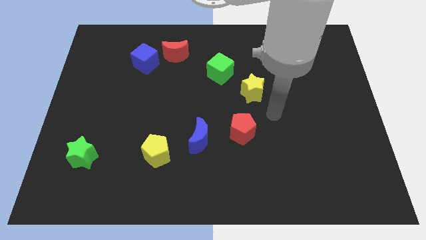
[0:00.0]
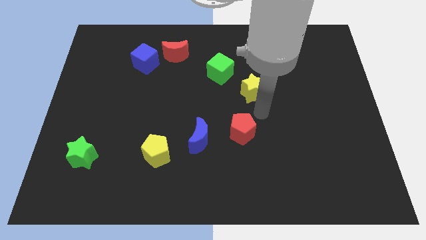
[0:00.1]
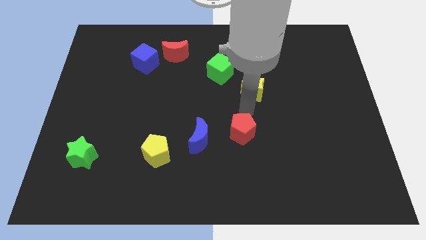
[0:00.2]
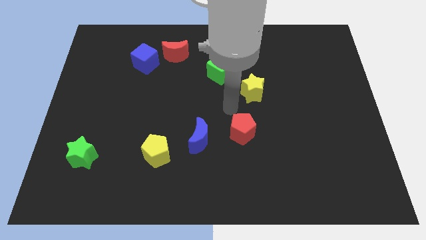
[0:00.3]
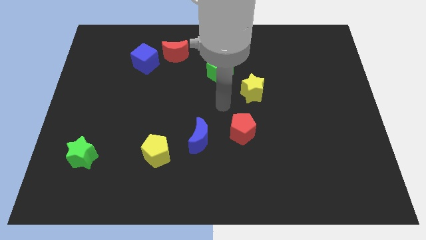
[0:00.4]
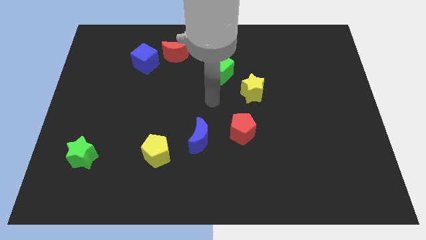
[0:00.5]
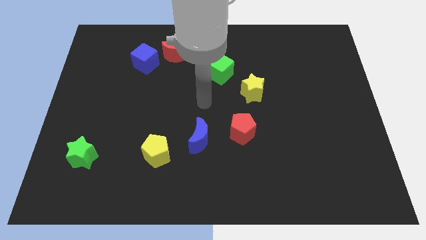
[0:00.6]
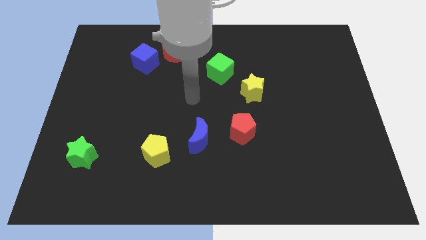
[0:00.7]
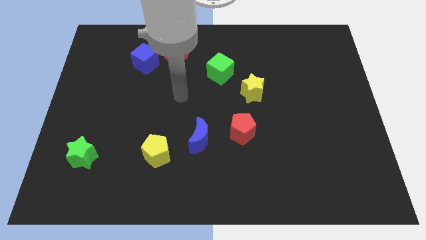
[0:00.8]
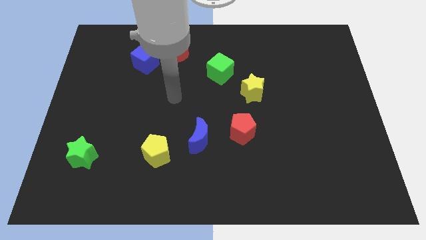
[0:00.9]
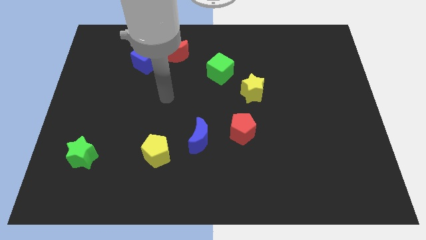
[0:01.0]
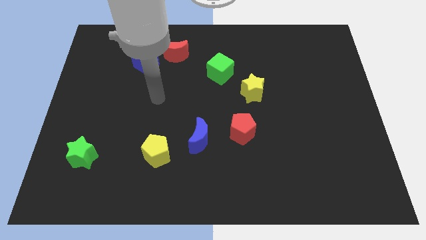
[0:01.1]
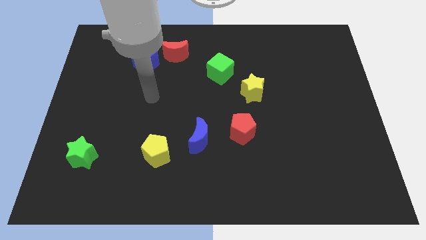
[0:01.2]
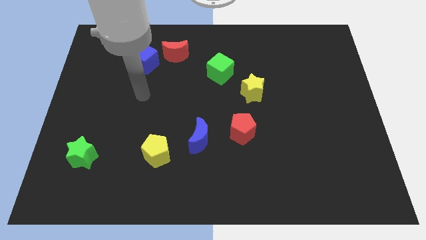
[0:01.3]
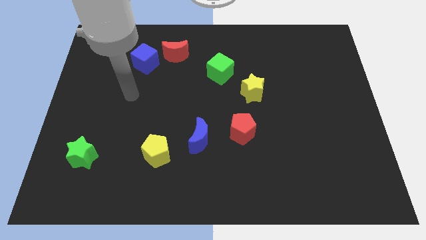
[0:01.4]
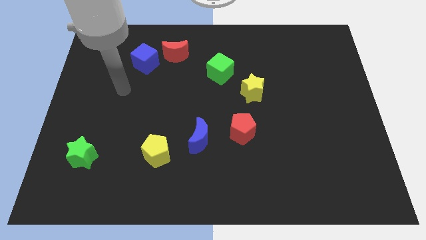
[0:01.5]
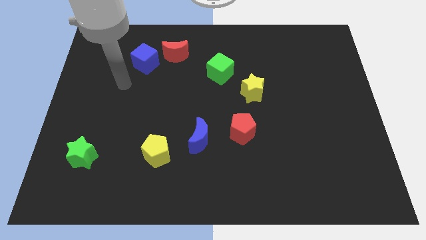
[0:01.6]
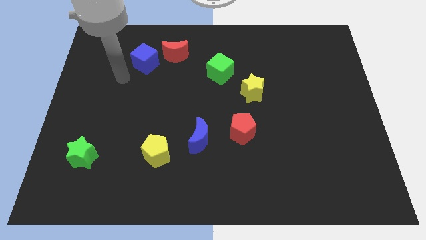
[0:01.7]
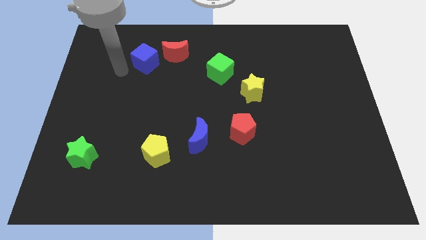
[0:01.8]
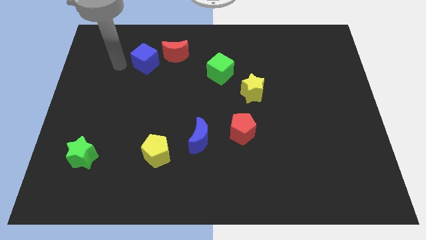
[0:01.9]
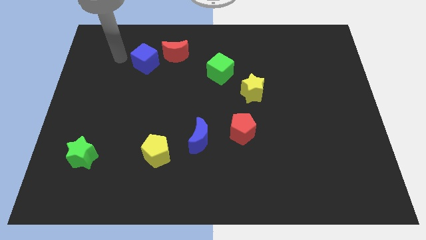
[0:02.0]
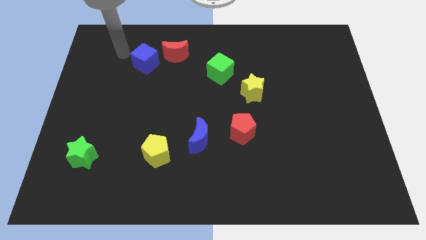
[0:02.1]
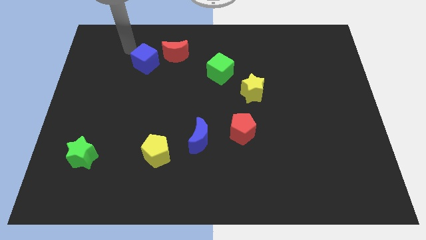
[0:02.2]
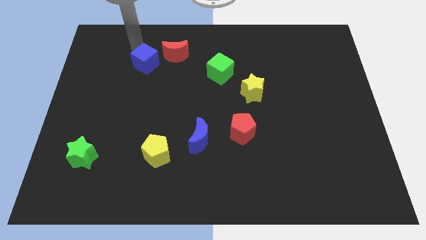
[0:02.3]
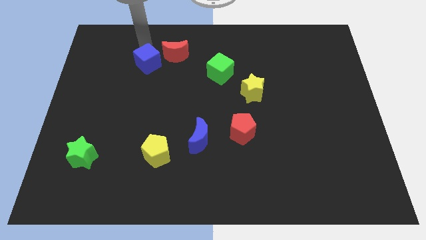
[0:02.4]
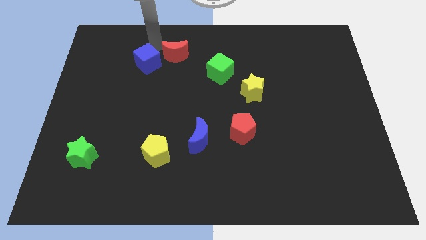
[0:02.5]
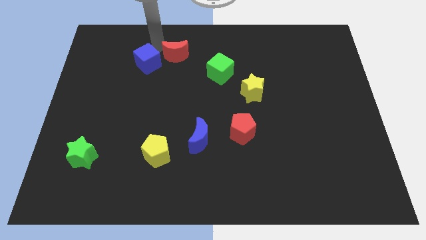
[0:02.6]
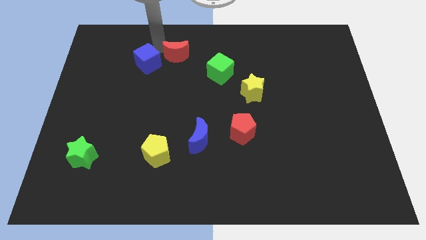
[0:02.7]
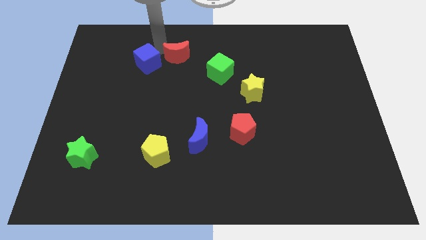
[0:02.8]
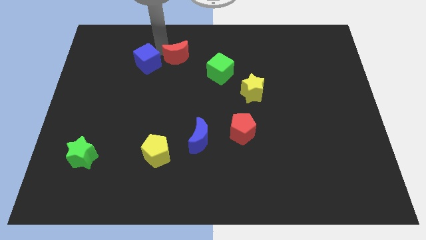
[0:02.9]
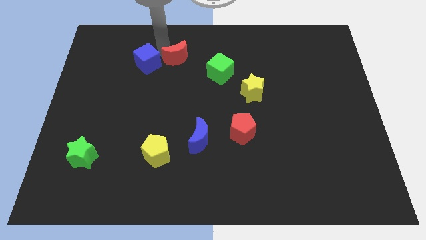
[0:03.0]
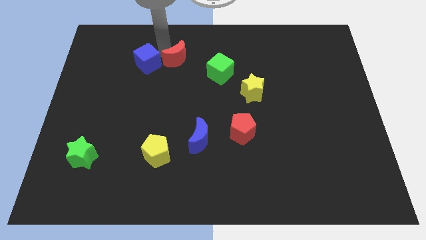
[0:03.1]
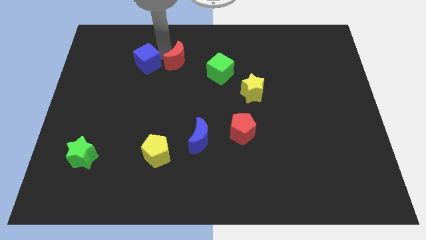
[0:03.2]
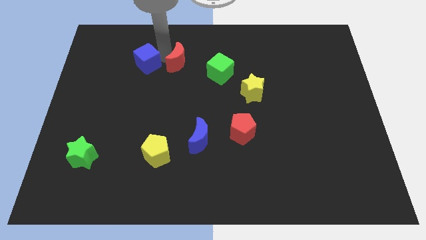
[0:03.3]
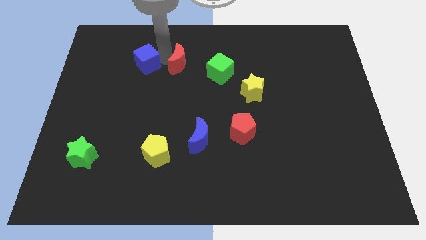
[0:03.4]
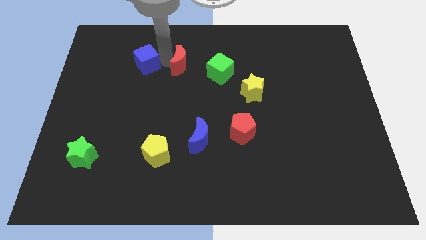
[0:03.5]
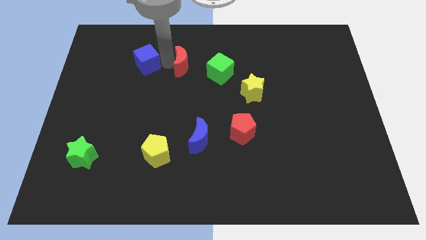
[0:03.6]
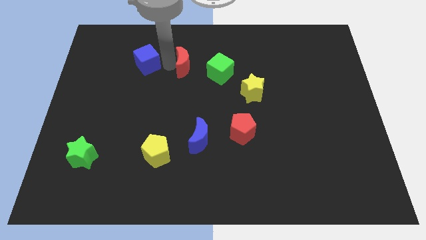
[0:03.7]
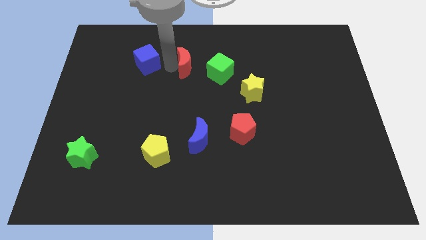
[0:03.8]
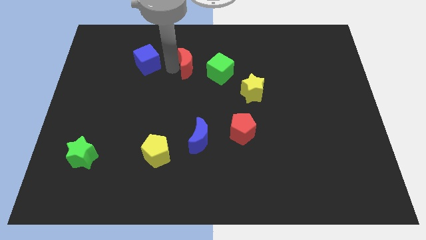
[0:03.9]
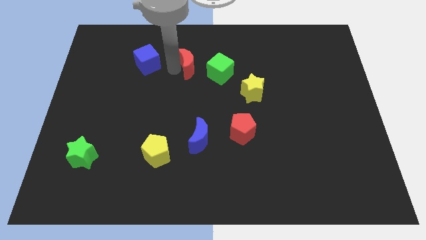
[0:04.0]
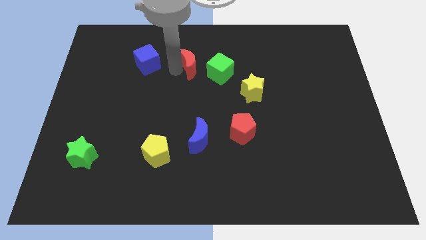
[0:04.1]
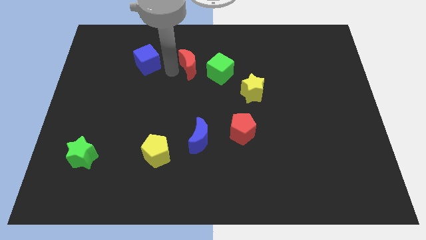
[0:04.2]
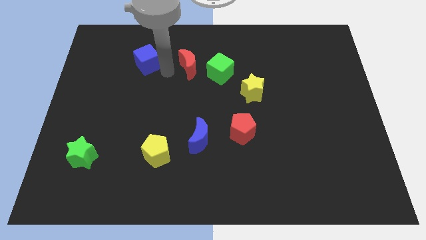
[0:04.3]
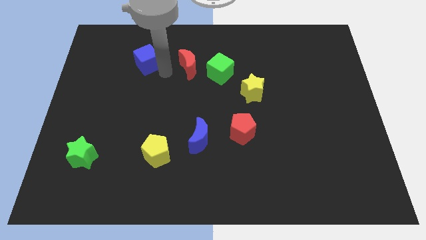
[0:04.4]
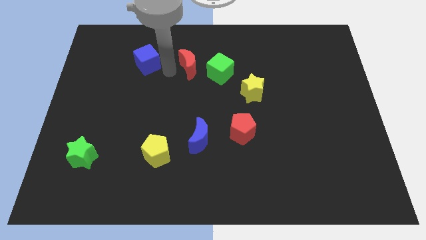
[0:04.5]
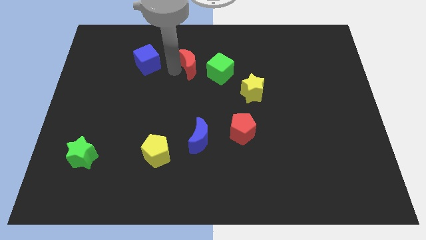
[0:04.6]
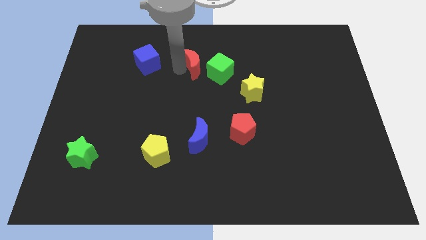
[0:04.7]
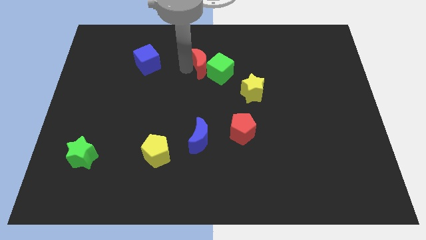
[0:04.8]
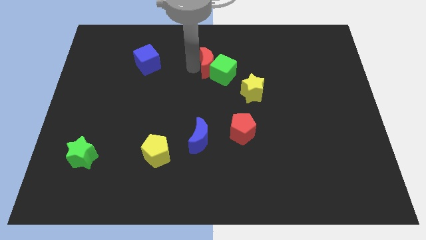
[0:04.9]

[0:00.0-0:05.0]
slightly move the red moon to the right

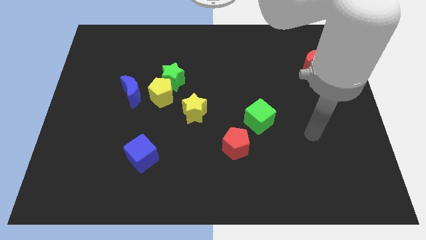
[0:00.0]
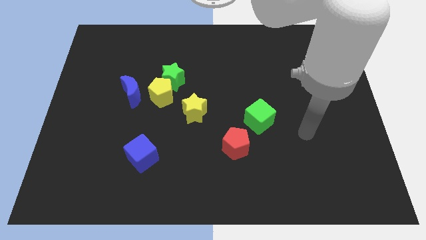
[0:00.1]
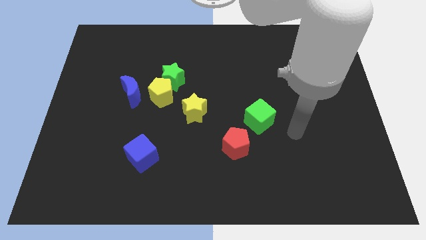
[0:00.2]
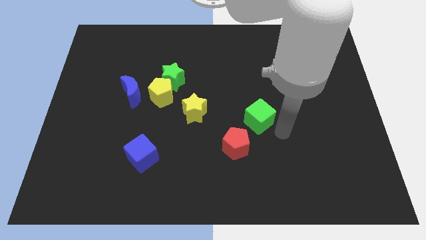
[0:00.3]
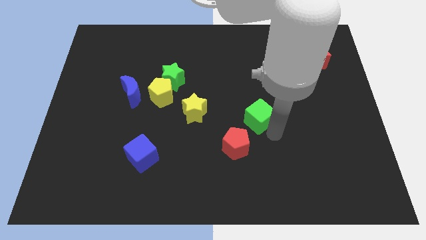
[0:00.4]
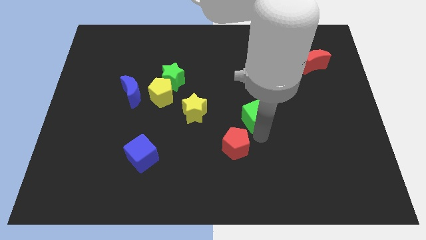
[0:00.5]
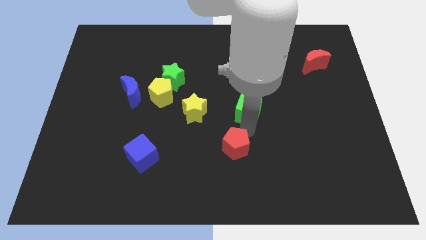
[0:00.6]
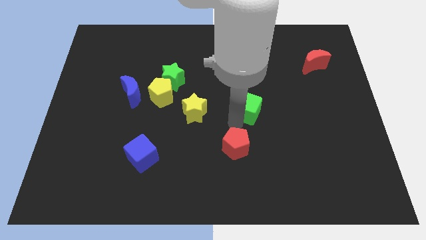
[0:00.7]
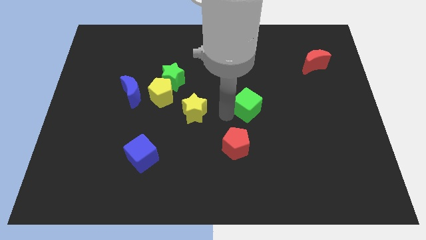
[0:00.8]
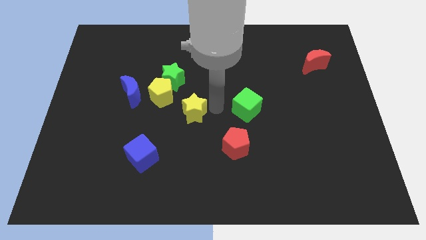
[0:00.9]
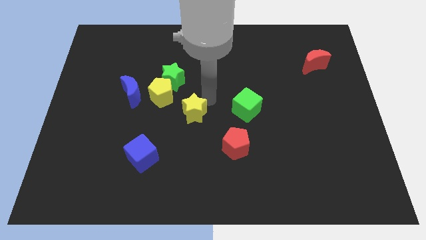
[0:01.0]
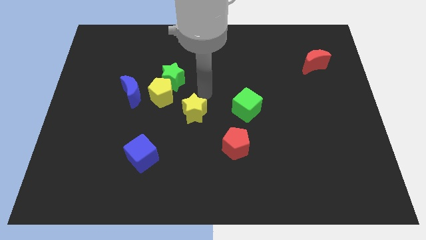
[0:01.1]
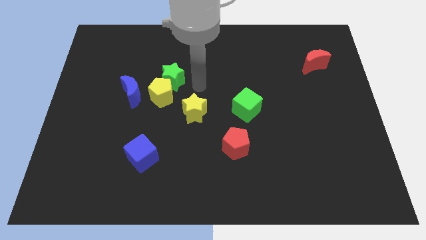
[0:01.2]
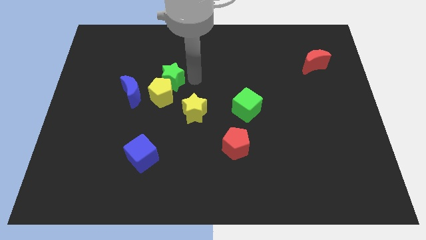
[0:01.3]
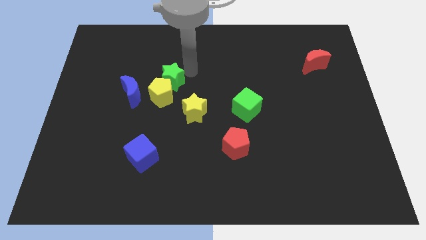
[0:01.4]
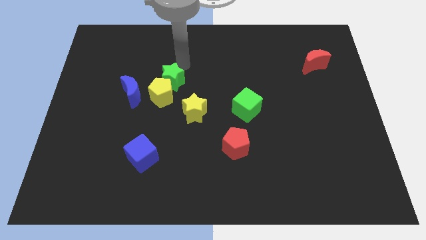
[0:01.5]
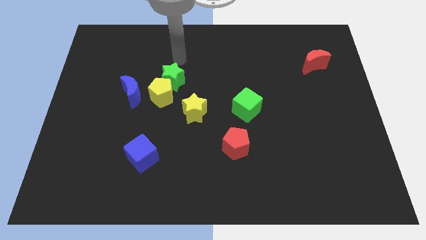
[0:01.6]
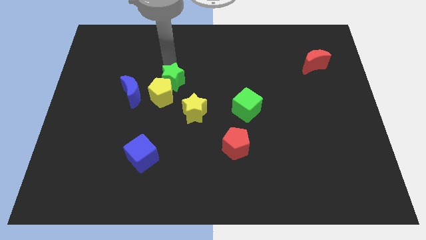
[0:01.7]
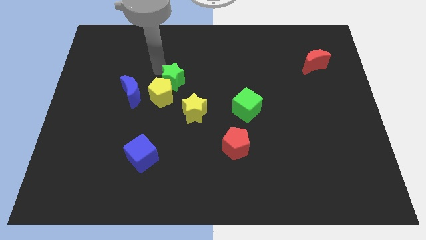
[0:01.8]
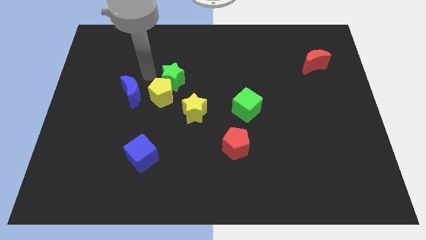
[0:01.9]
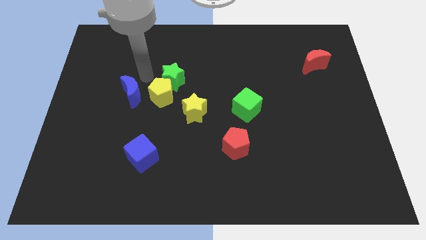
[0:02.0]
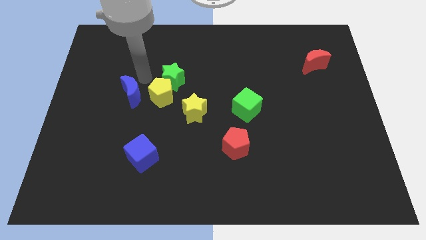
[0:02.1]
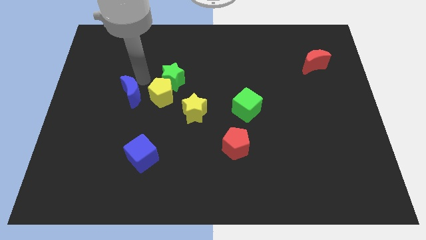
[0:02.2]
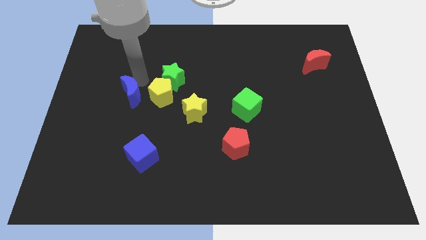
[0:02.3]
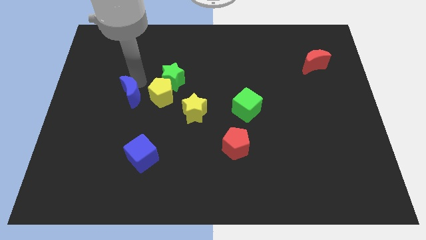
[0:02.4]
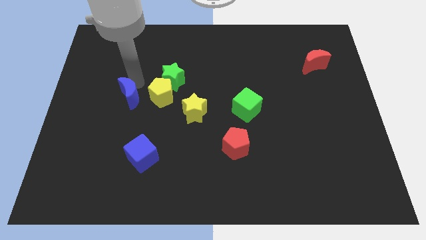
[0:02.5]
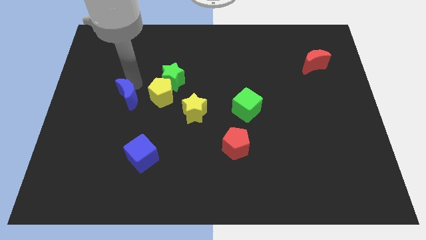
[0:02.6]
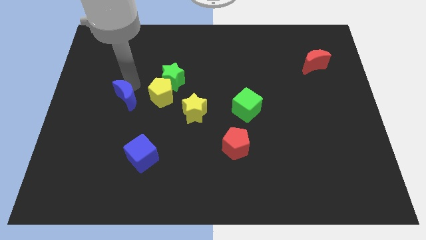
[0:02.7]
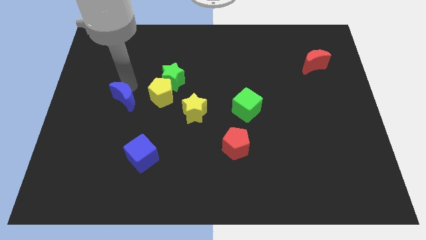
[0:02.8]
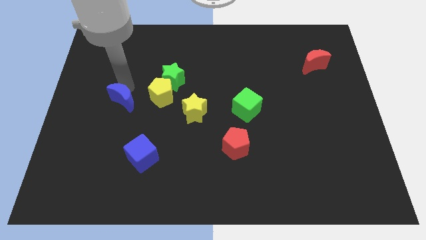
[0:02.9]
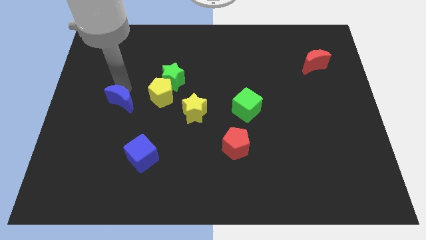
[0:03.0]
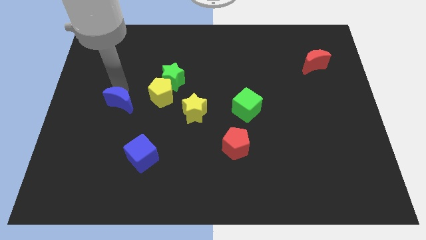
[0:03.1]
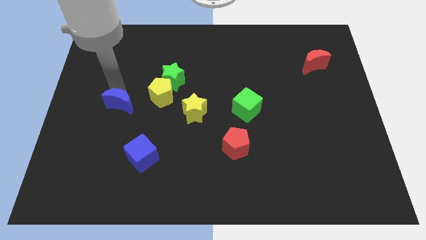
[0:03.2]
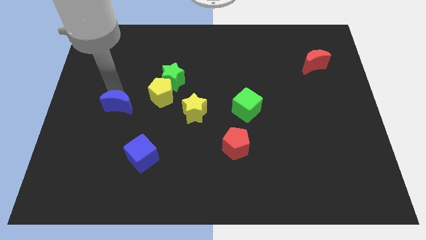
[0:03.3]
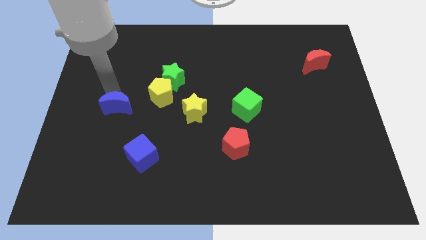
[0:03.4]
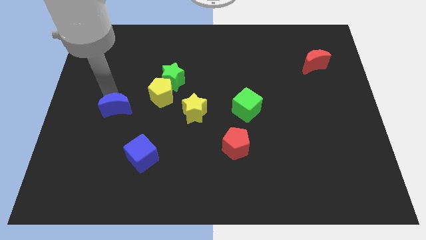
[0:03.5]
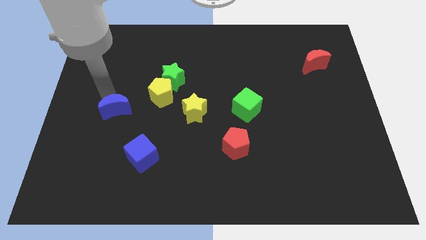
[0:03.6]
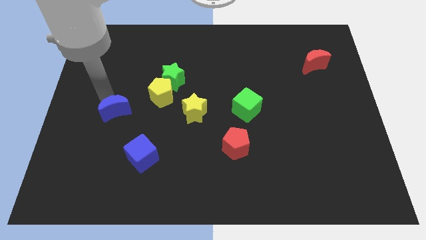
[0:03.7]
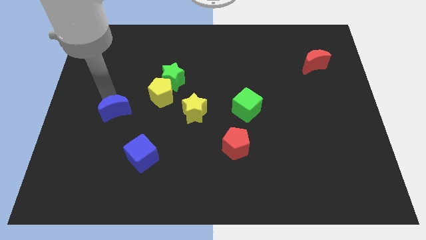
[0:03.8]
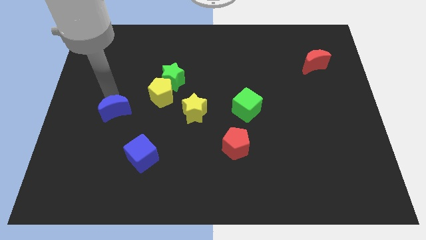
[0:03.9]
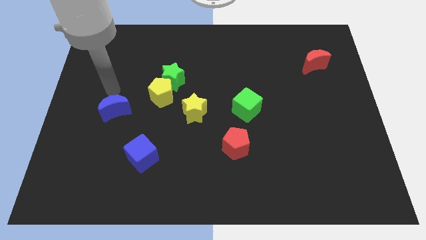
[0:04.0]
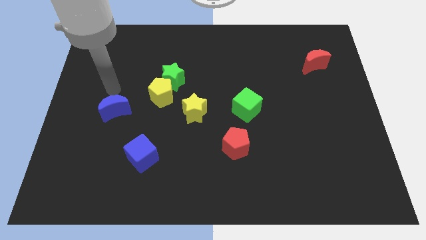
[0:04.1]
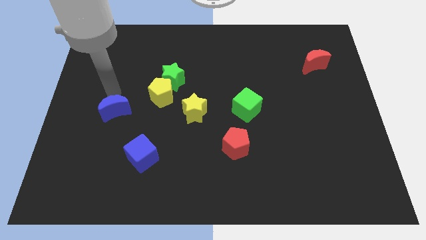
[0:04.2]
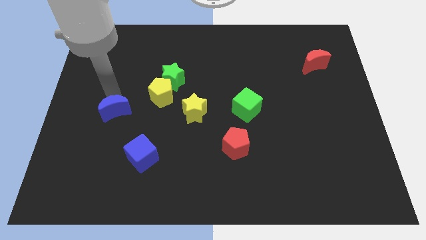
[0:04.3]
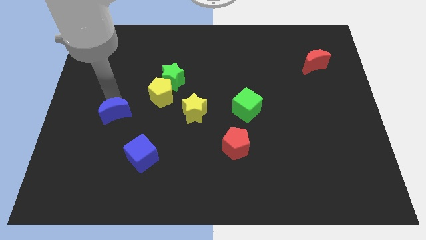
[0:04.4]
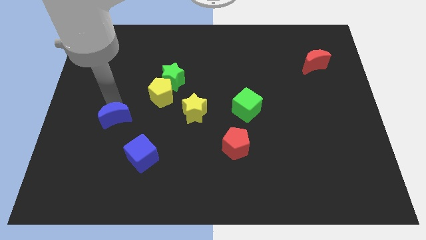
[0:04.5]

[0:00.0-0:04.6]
move the blue moon downwards slightly
